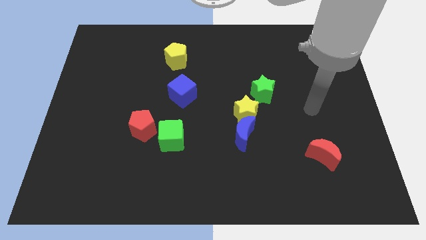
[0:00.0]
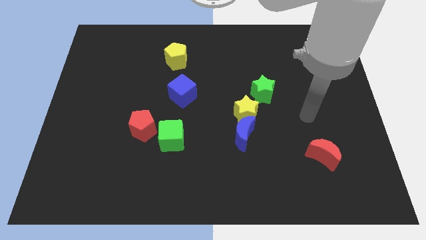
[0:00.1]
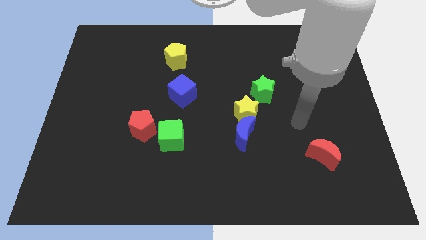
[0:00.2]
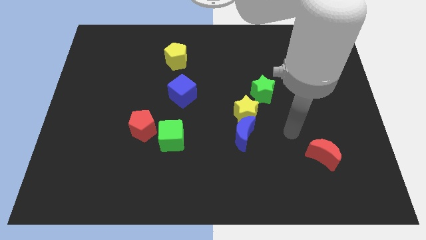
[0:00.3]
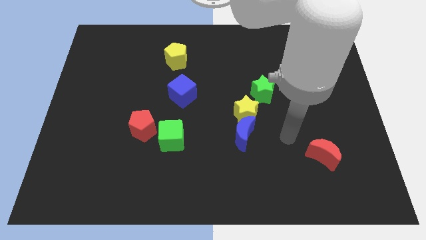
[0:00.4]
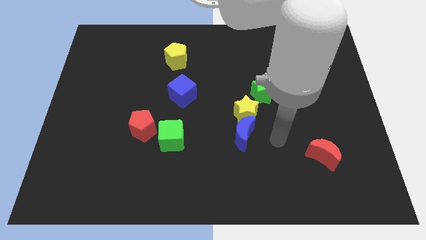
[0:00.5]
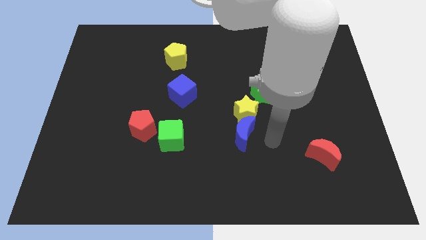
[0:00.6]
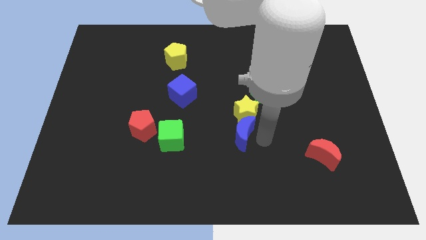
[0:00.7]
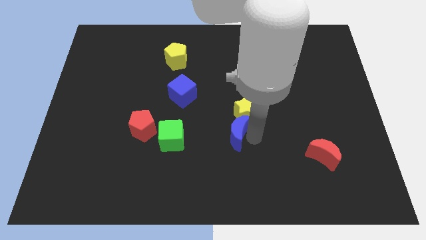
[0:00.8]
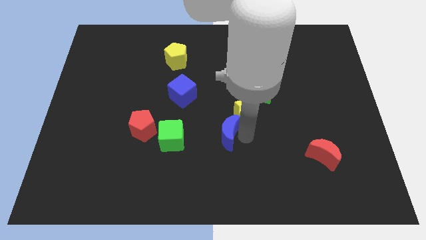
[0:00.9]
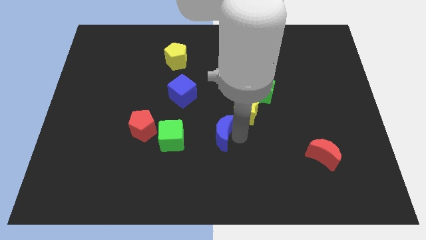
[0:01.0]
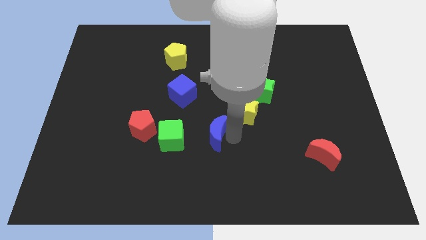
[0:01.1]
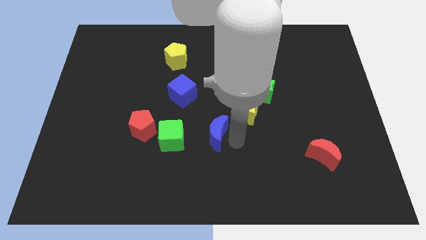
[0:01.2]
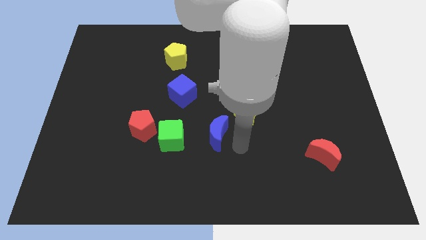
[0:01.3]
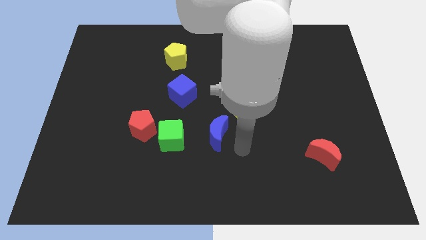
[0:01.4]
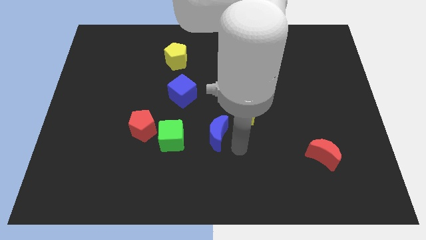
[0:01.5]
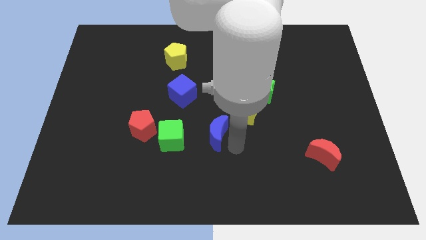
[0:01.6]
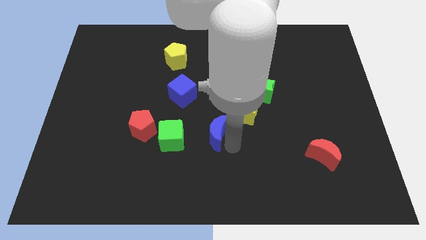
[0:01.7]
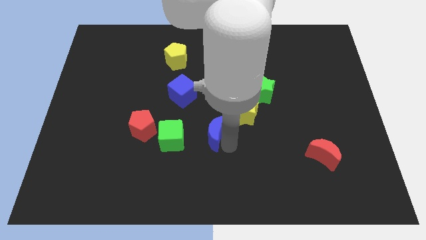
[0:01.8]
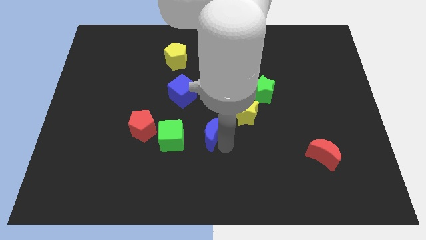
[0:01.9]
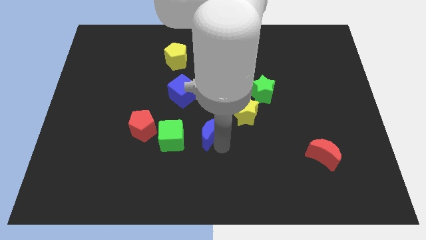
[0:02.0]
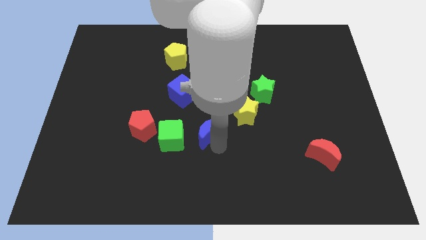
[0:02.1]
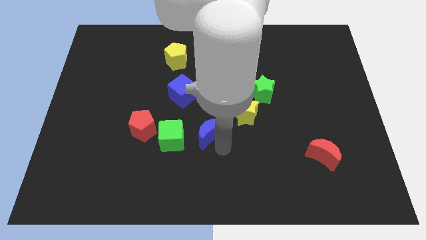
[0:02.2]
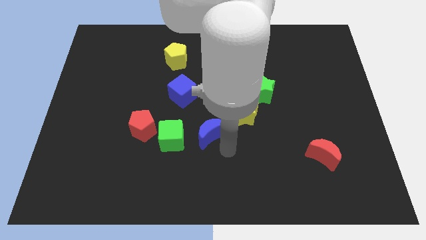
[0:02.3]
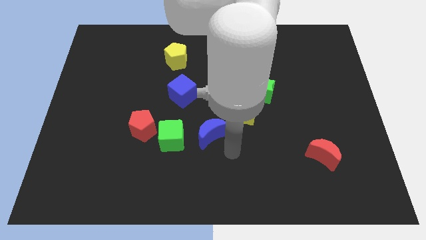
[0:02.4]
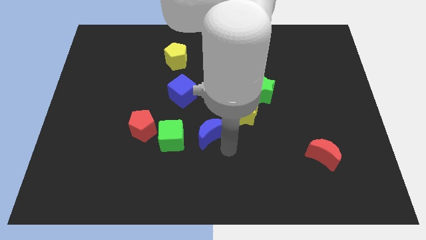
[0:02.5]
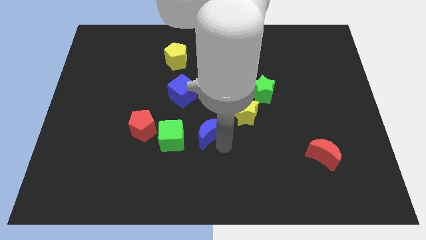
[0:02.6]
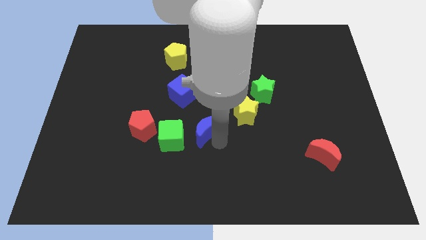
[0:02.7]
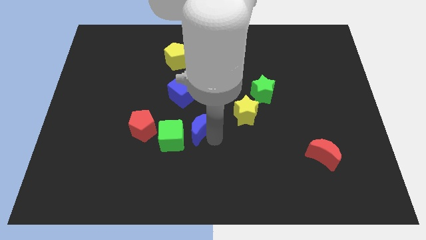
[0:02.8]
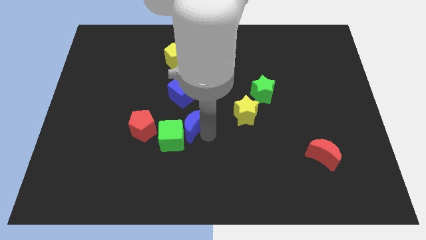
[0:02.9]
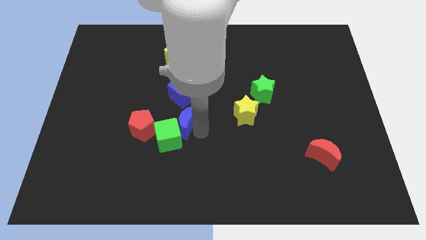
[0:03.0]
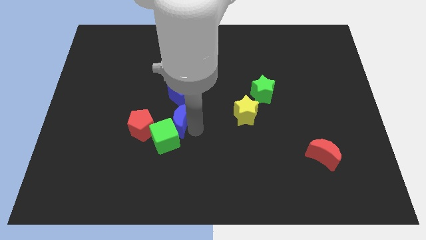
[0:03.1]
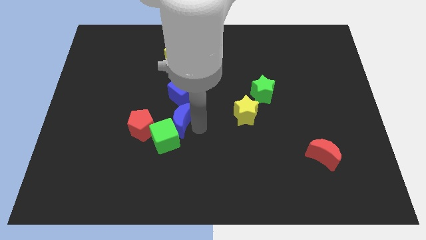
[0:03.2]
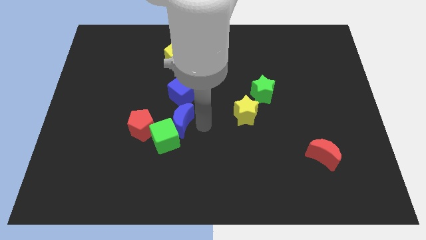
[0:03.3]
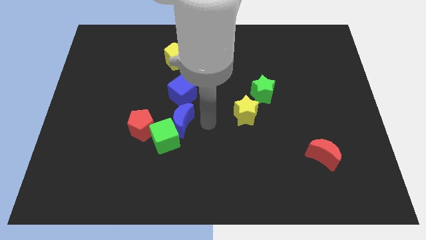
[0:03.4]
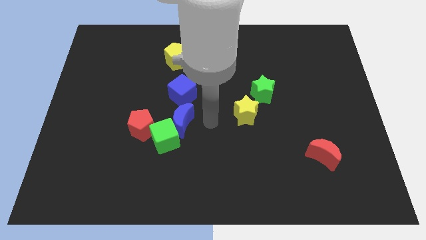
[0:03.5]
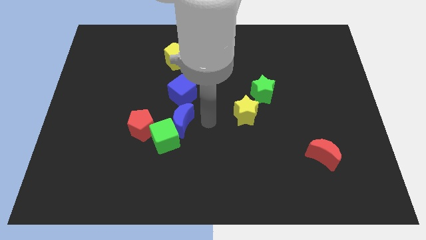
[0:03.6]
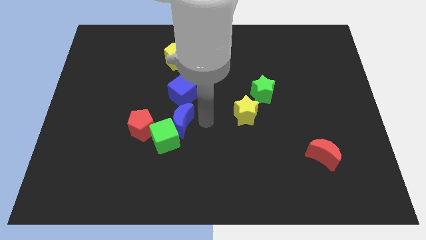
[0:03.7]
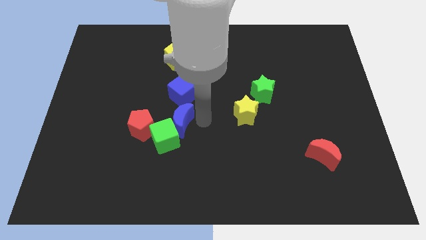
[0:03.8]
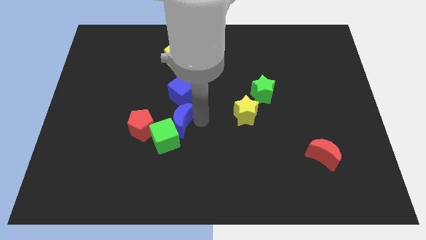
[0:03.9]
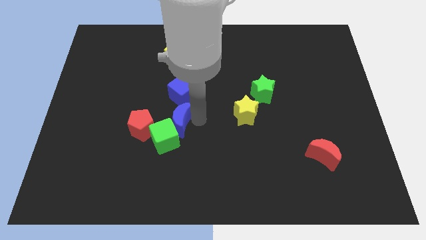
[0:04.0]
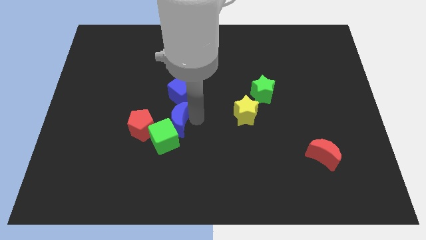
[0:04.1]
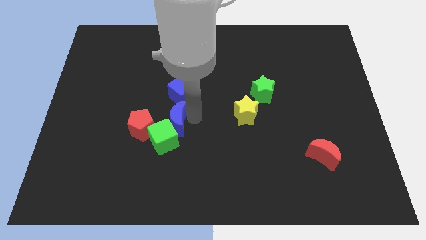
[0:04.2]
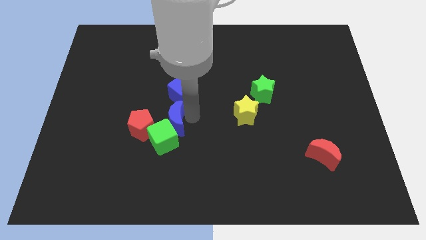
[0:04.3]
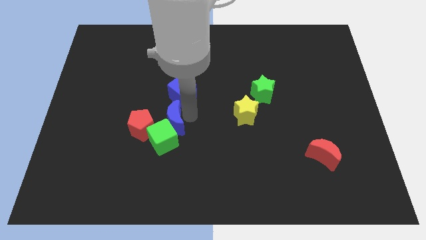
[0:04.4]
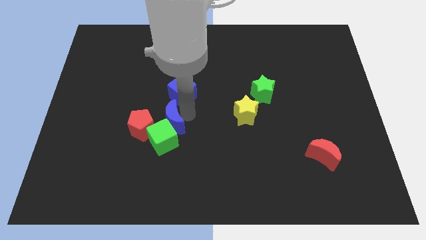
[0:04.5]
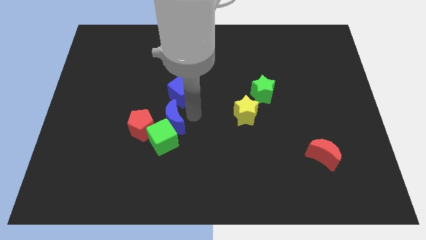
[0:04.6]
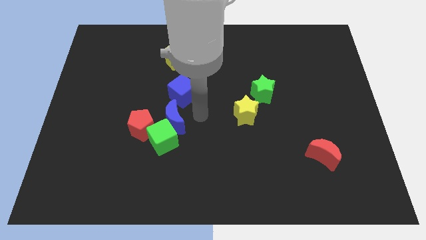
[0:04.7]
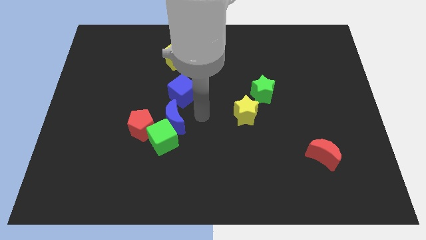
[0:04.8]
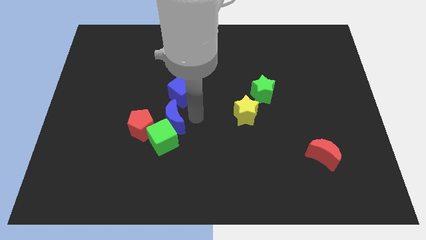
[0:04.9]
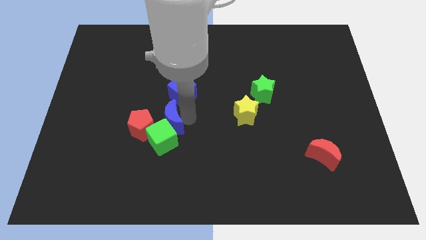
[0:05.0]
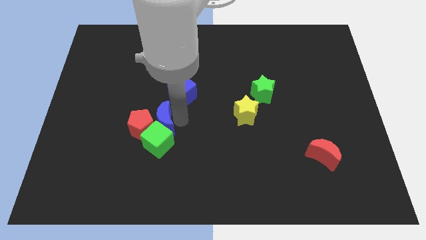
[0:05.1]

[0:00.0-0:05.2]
slide the blue moon towards the red pentagon

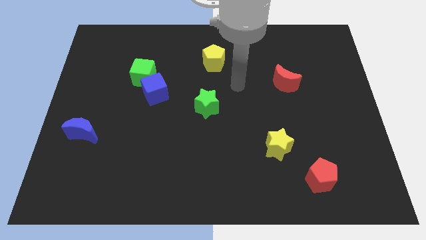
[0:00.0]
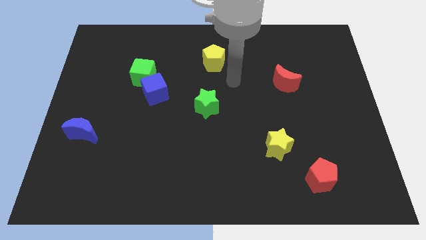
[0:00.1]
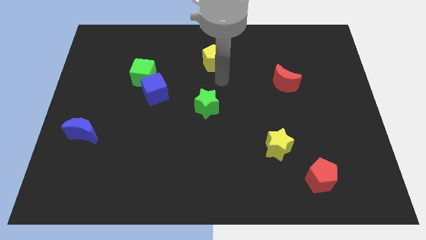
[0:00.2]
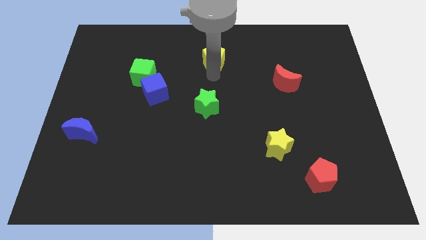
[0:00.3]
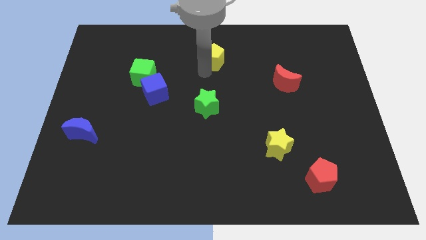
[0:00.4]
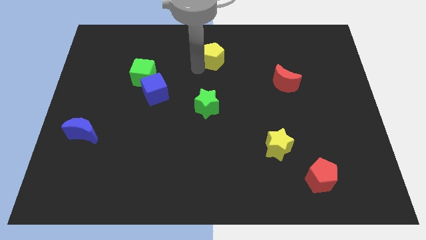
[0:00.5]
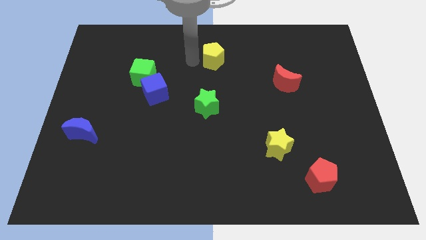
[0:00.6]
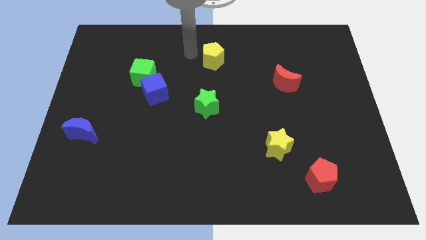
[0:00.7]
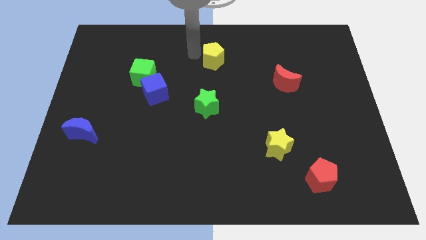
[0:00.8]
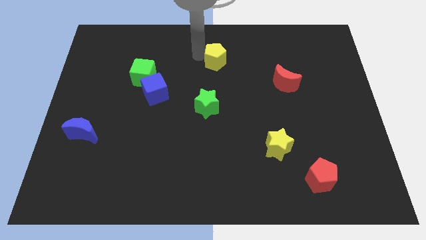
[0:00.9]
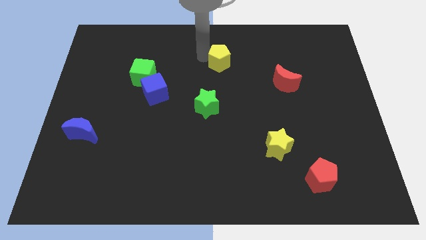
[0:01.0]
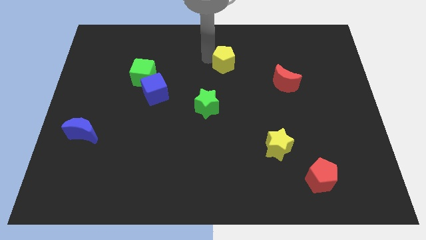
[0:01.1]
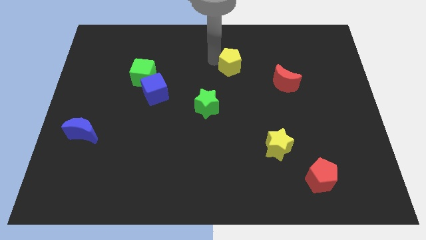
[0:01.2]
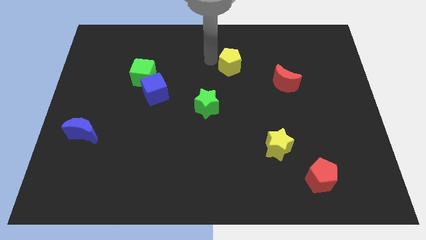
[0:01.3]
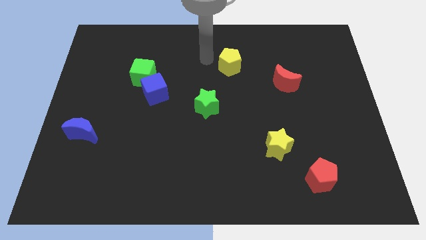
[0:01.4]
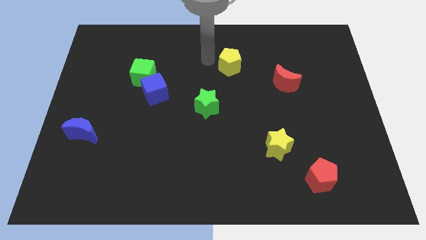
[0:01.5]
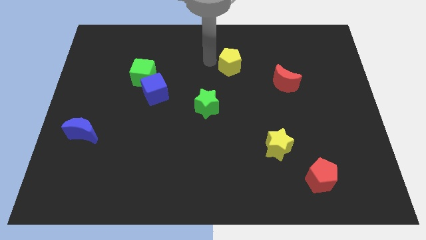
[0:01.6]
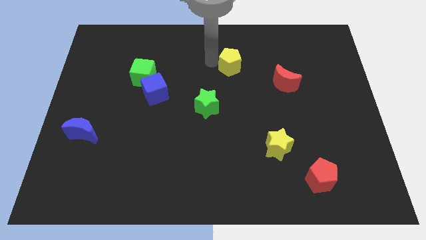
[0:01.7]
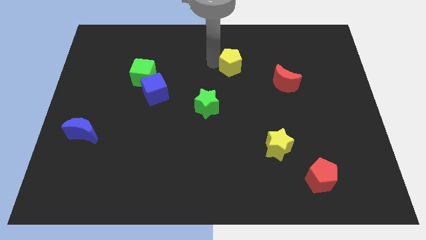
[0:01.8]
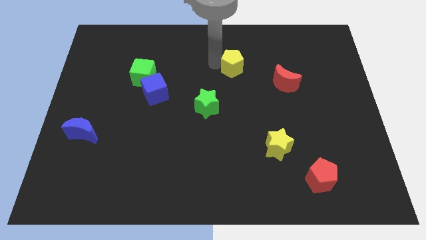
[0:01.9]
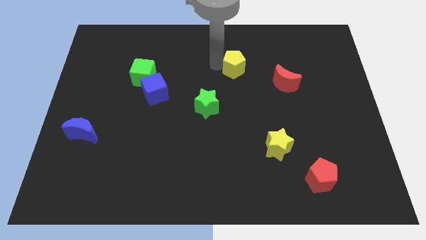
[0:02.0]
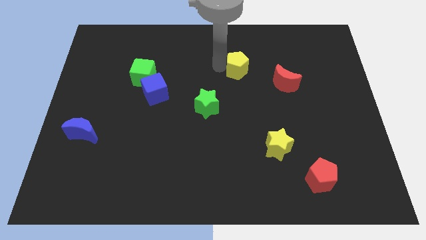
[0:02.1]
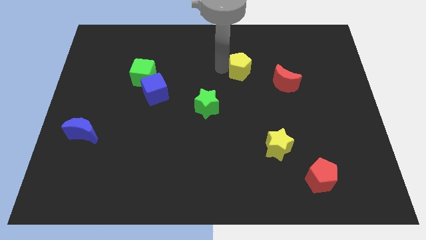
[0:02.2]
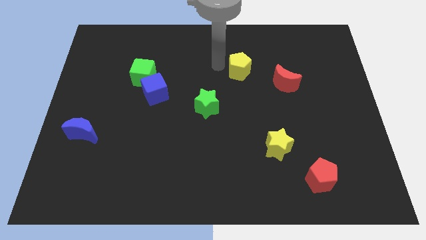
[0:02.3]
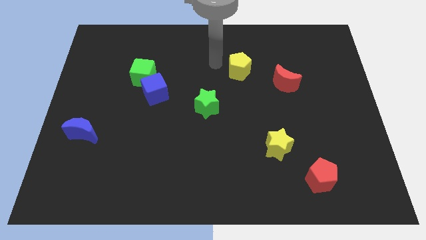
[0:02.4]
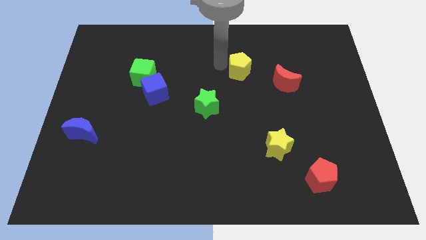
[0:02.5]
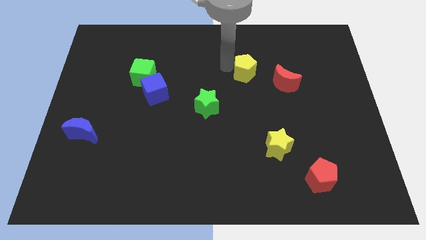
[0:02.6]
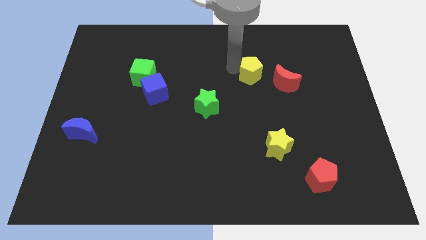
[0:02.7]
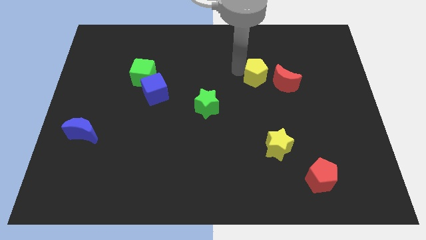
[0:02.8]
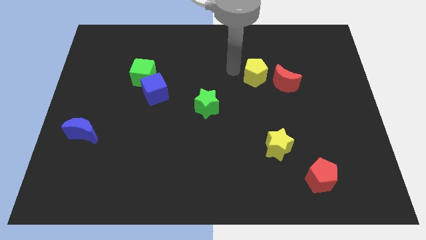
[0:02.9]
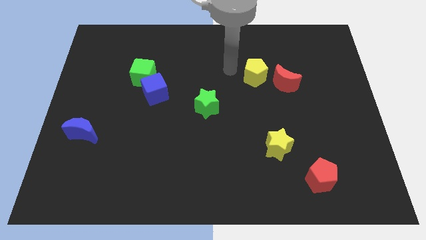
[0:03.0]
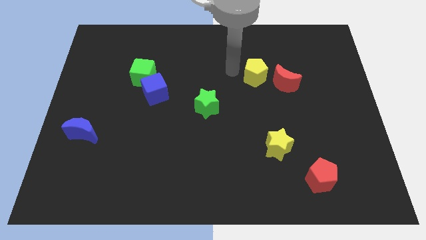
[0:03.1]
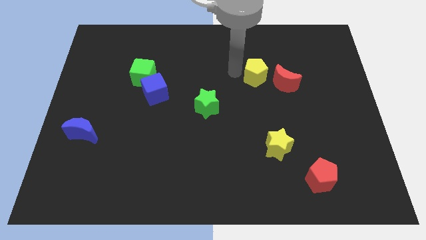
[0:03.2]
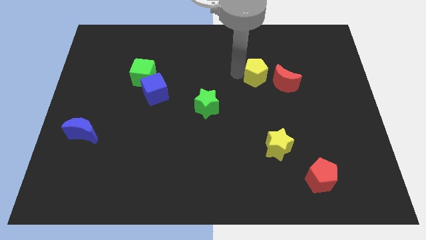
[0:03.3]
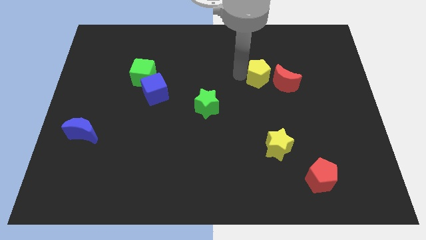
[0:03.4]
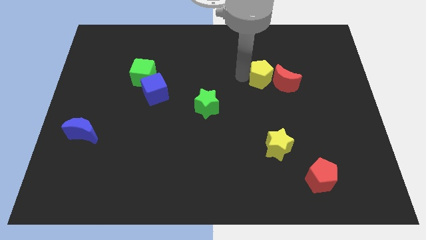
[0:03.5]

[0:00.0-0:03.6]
move the yellow pentagon towards the red moon
